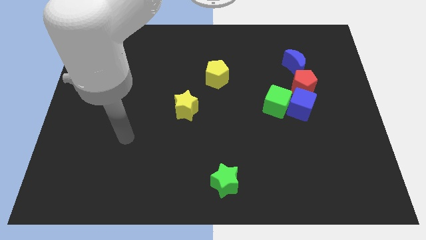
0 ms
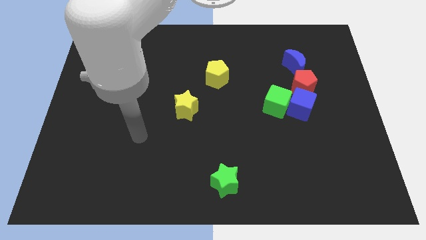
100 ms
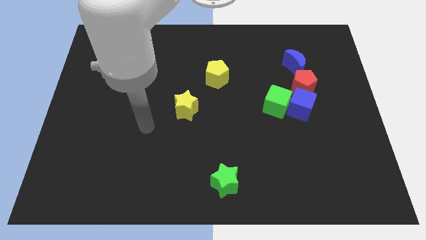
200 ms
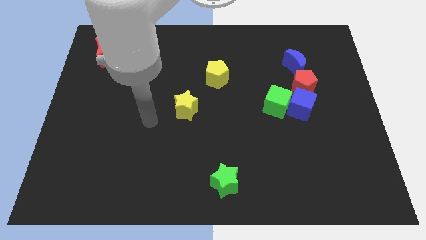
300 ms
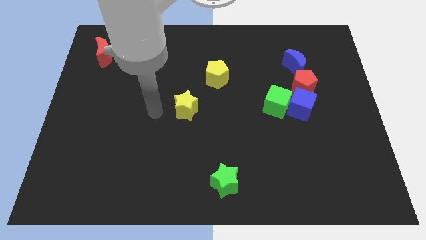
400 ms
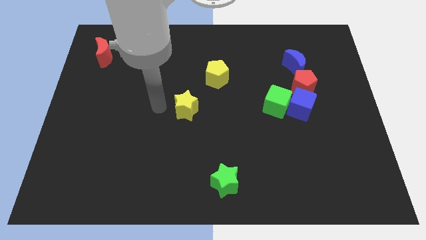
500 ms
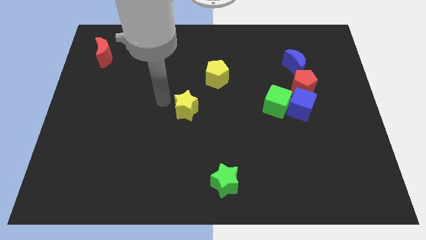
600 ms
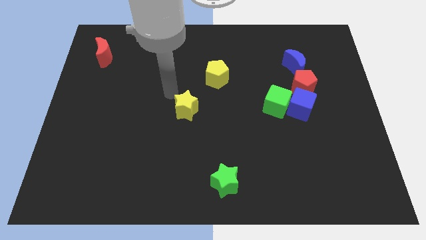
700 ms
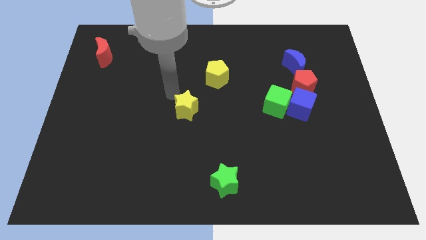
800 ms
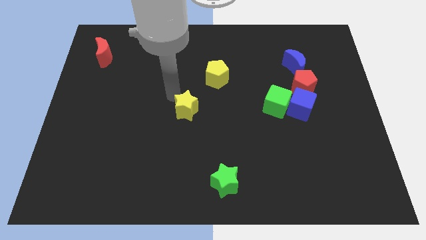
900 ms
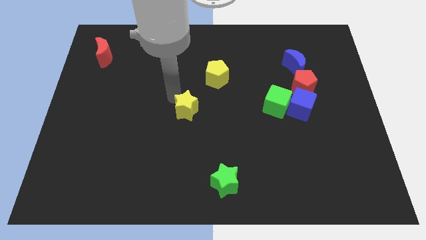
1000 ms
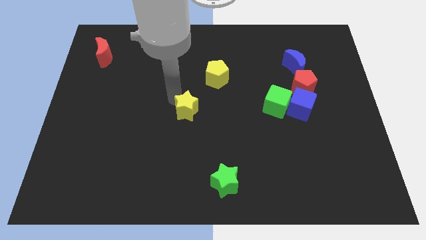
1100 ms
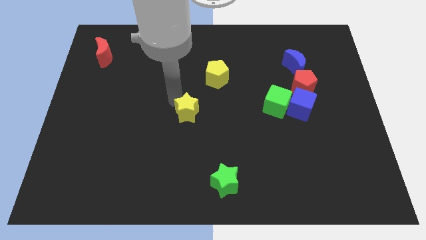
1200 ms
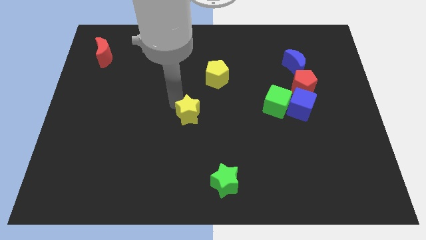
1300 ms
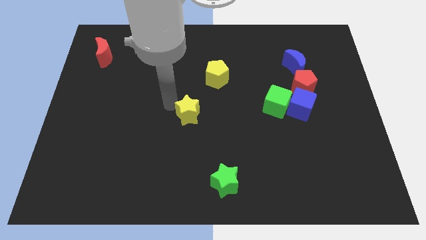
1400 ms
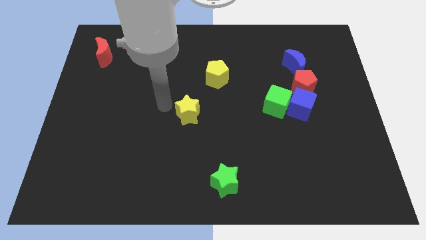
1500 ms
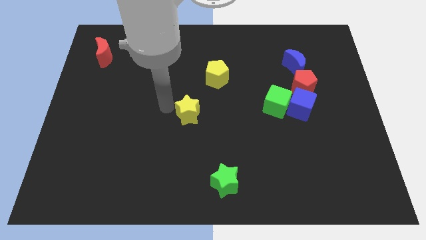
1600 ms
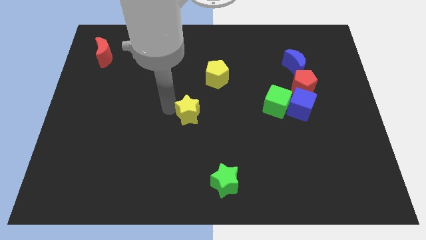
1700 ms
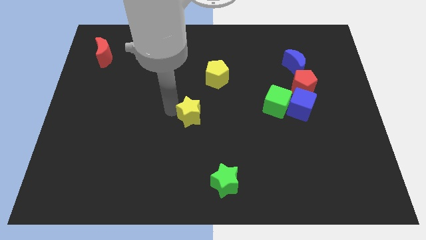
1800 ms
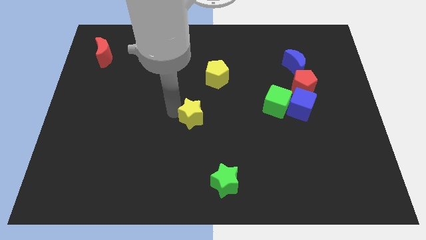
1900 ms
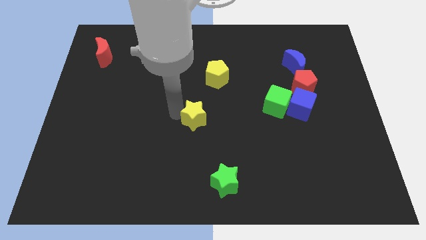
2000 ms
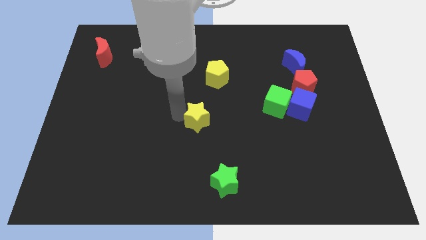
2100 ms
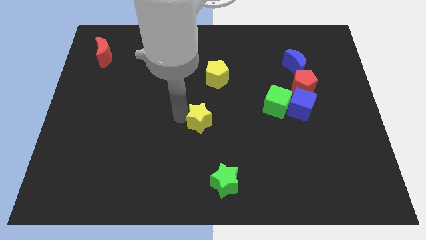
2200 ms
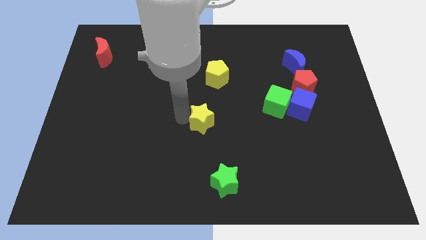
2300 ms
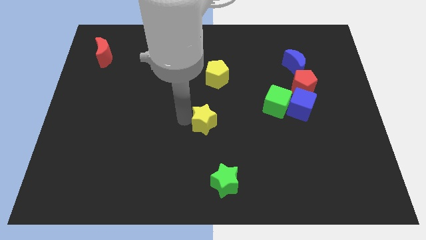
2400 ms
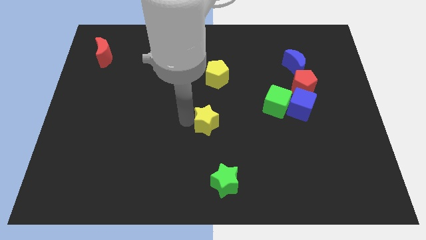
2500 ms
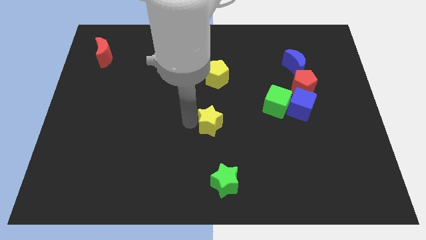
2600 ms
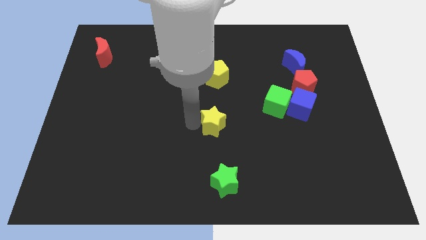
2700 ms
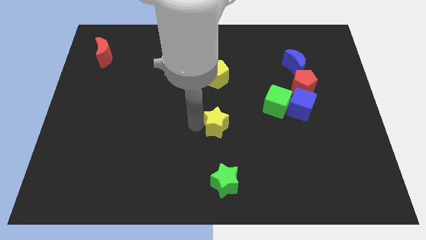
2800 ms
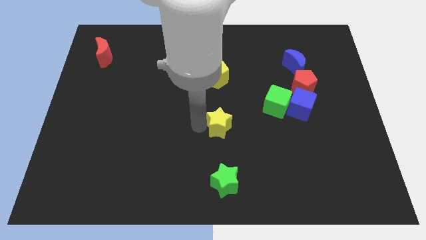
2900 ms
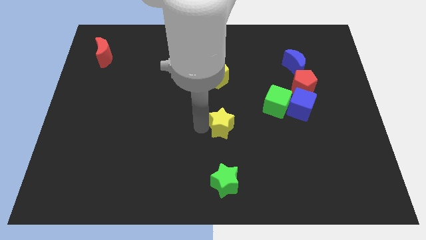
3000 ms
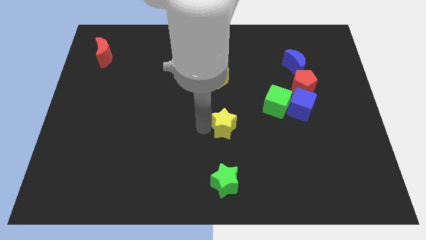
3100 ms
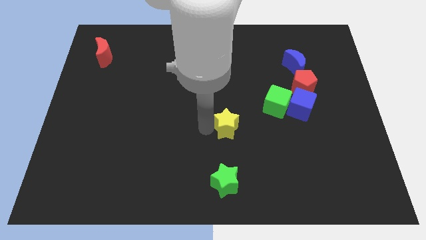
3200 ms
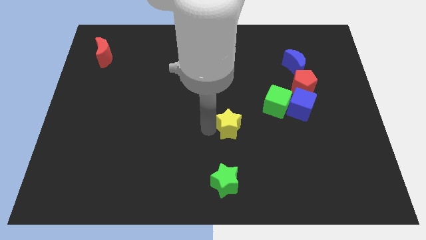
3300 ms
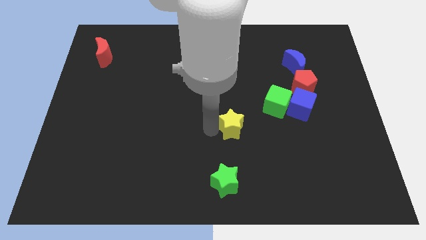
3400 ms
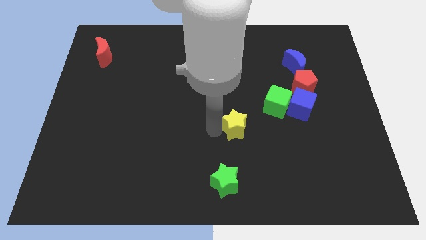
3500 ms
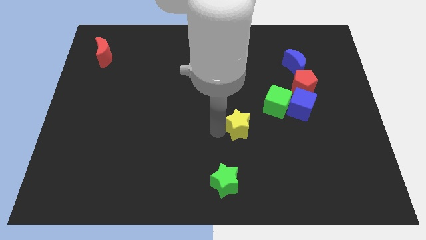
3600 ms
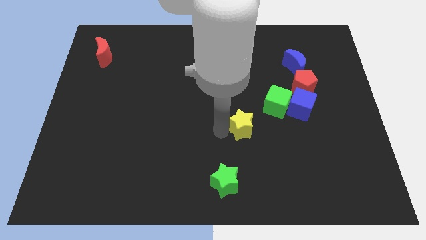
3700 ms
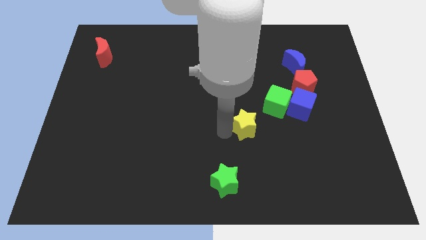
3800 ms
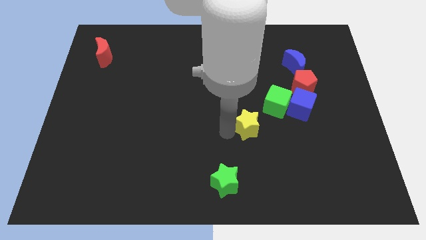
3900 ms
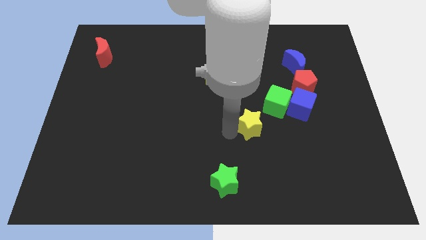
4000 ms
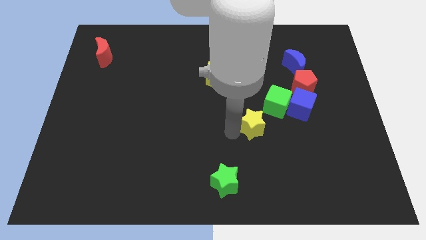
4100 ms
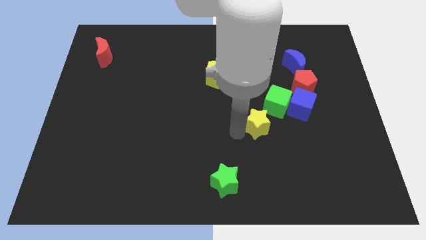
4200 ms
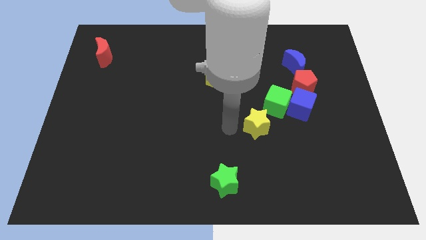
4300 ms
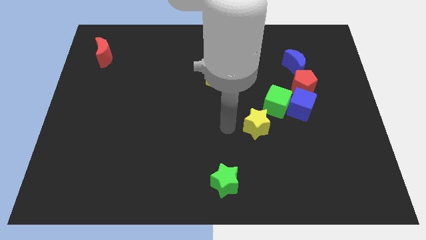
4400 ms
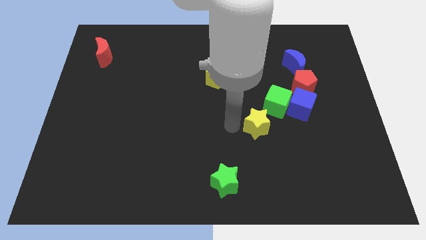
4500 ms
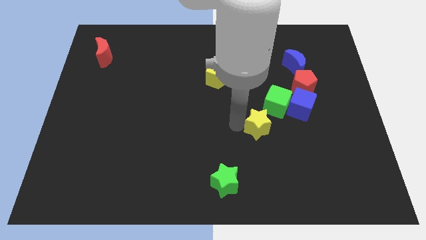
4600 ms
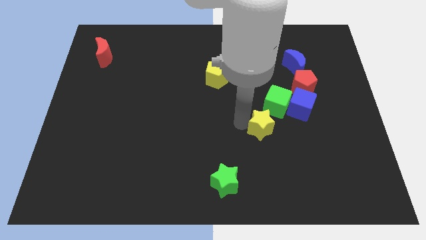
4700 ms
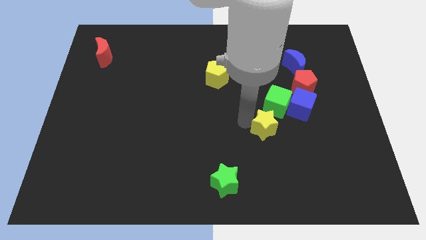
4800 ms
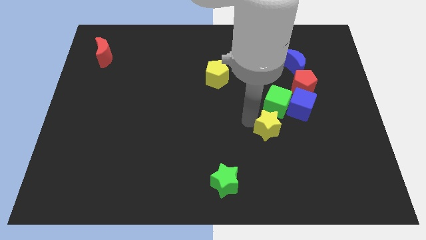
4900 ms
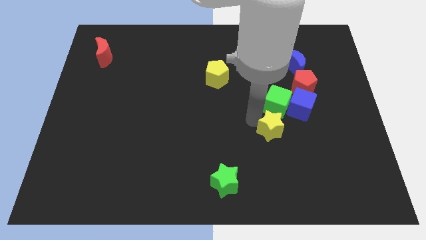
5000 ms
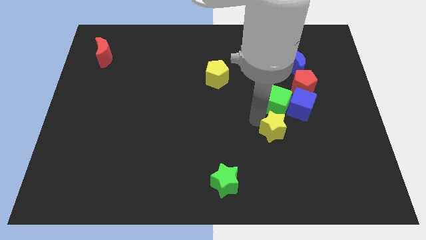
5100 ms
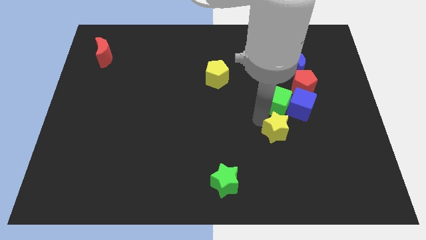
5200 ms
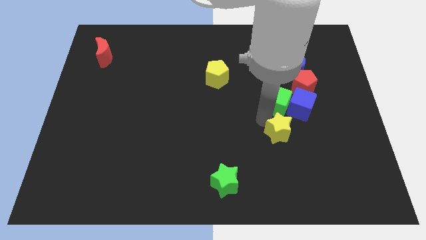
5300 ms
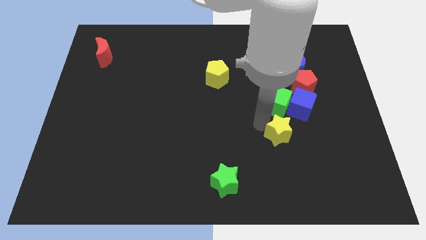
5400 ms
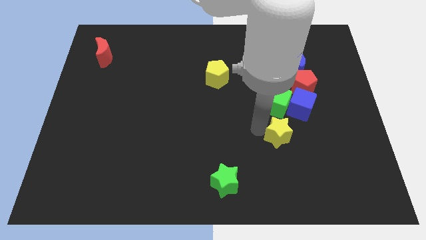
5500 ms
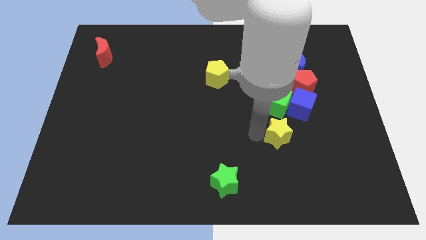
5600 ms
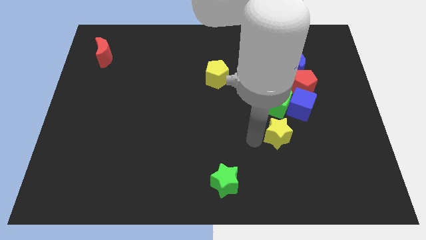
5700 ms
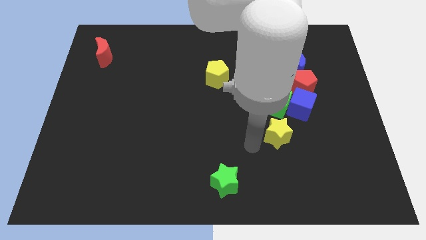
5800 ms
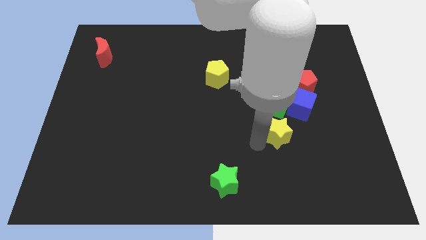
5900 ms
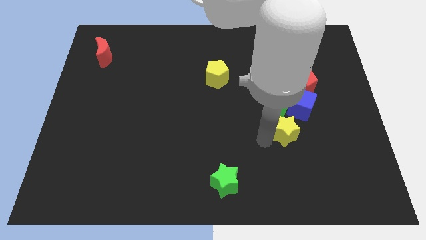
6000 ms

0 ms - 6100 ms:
slide the yellow star to the bottom right of the green cube
